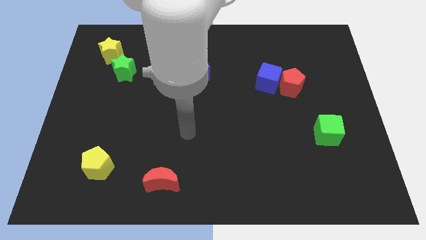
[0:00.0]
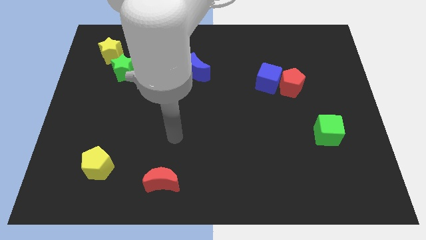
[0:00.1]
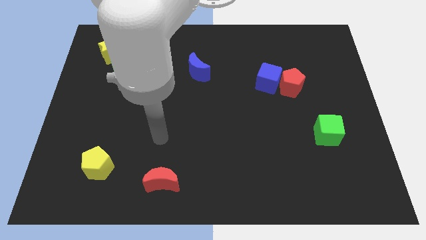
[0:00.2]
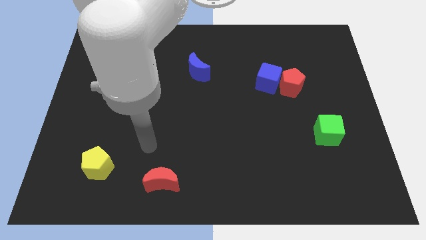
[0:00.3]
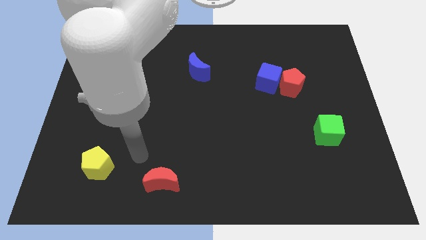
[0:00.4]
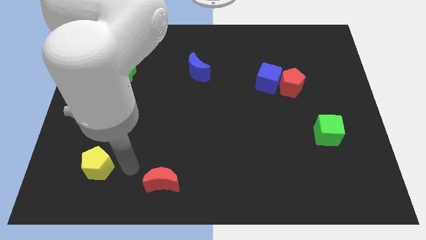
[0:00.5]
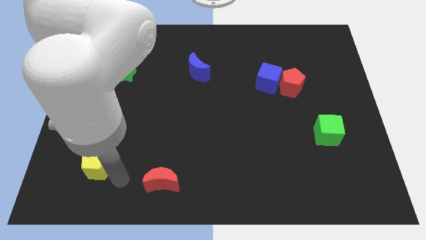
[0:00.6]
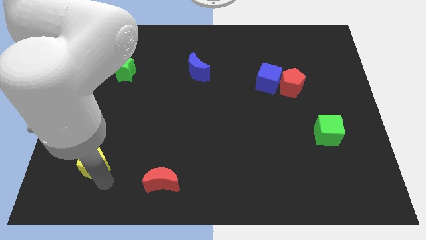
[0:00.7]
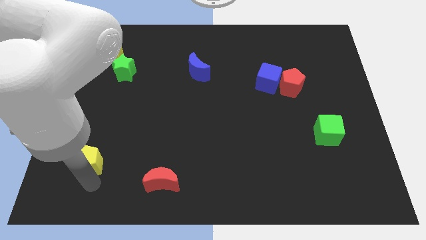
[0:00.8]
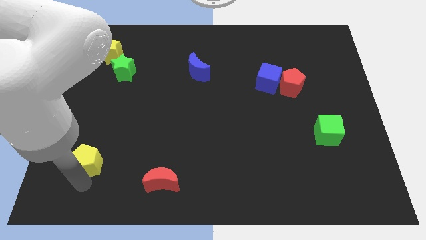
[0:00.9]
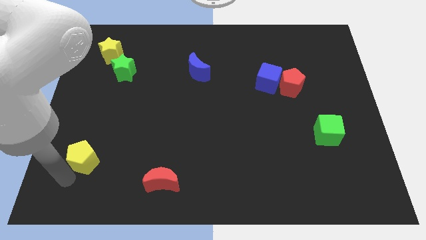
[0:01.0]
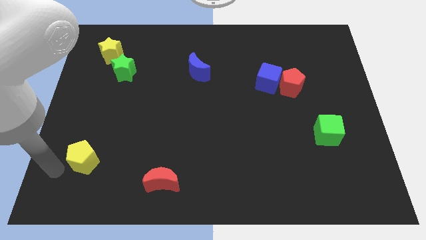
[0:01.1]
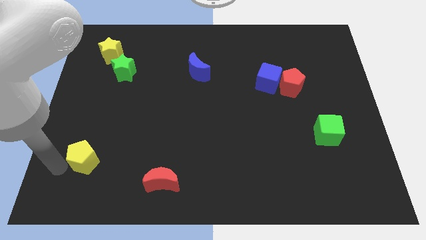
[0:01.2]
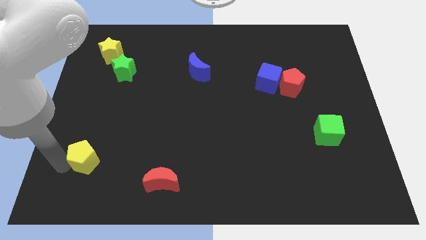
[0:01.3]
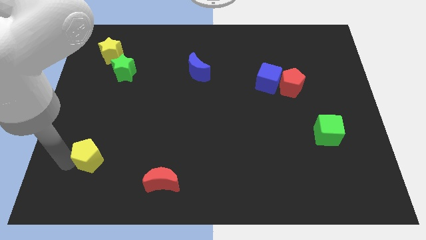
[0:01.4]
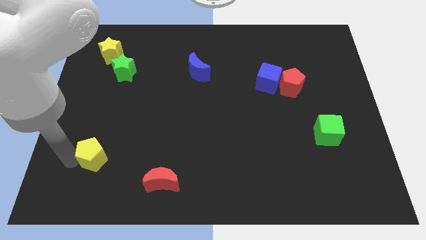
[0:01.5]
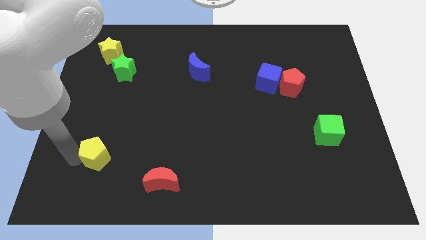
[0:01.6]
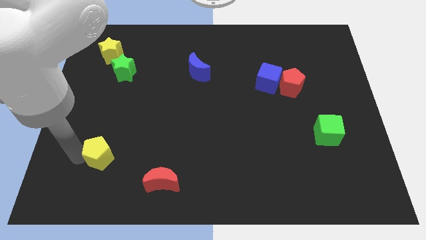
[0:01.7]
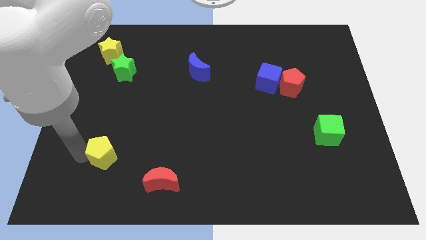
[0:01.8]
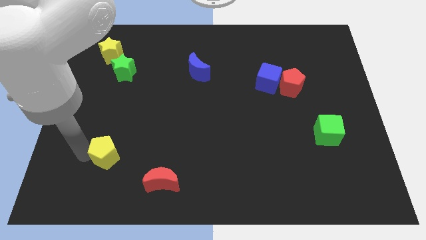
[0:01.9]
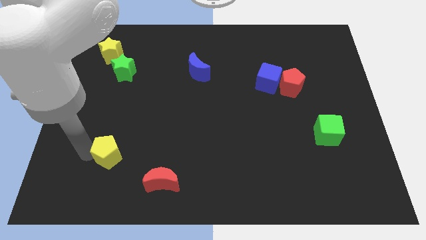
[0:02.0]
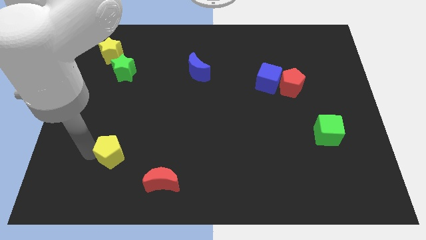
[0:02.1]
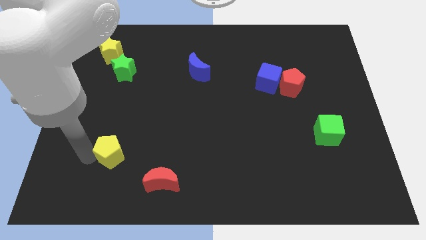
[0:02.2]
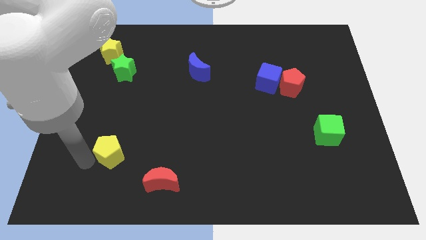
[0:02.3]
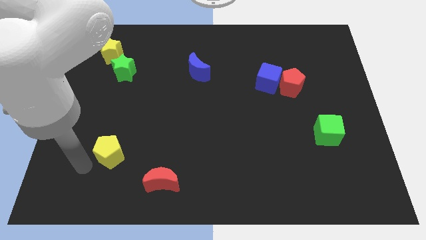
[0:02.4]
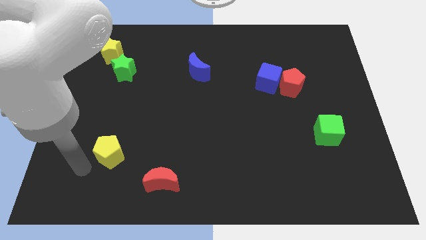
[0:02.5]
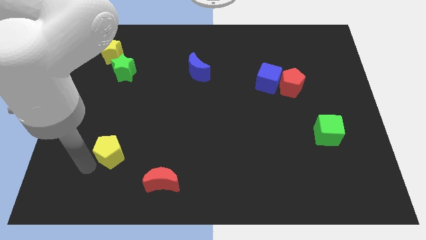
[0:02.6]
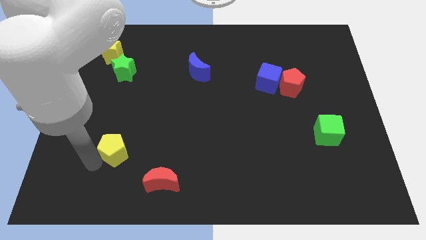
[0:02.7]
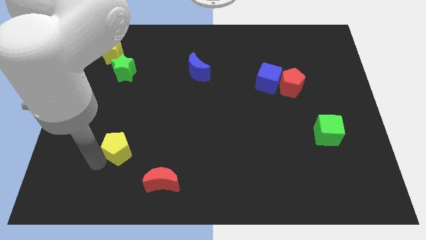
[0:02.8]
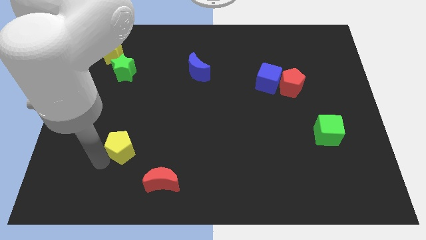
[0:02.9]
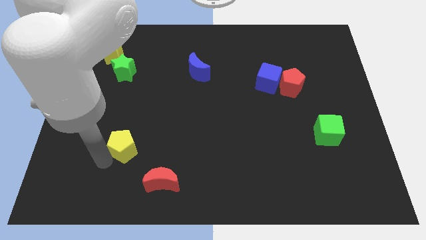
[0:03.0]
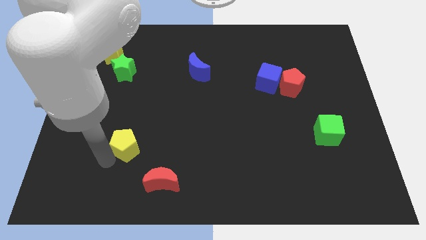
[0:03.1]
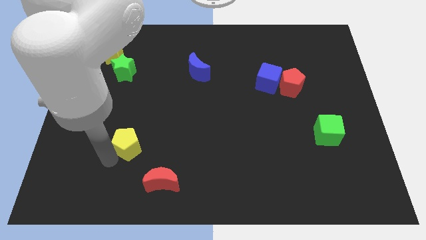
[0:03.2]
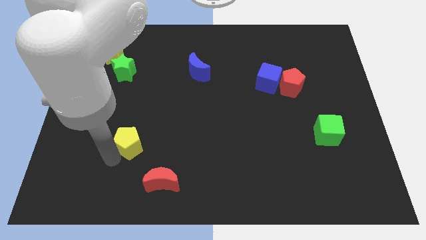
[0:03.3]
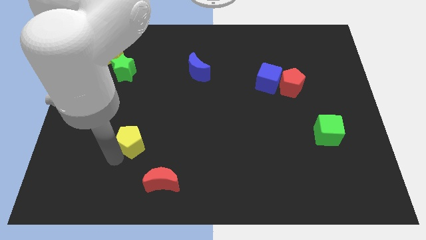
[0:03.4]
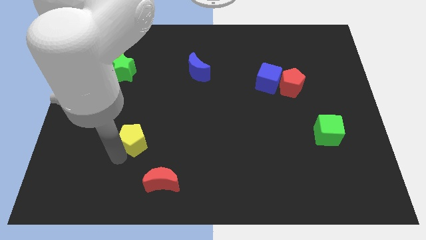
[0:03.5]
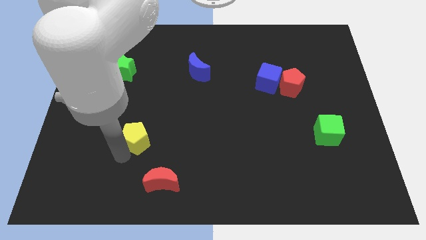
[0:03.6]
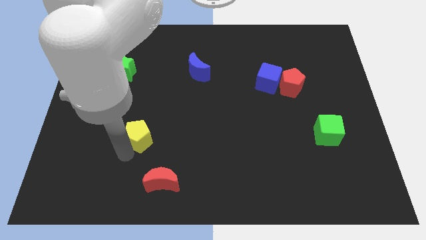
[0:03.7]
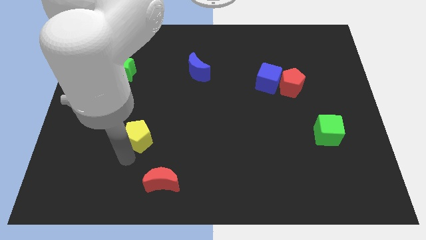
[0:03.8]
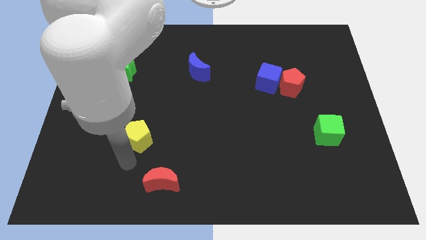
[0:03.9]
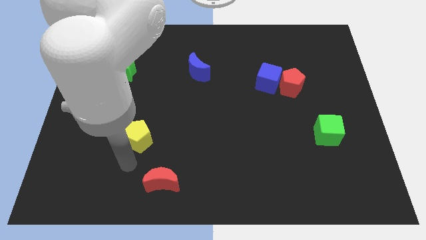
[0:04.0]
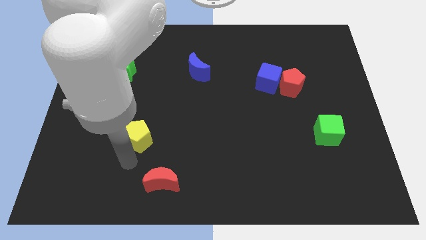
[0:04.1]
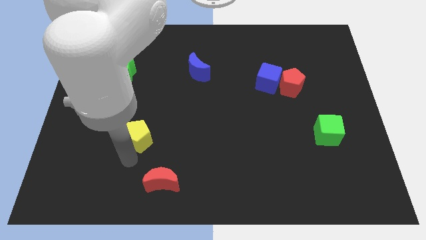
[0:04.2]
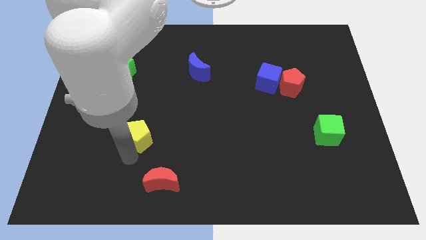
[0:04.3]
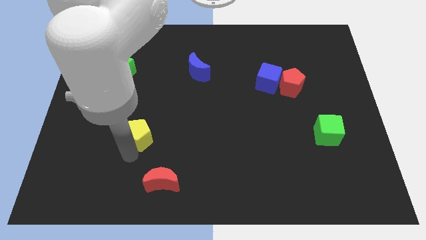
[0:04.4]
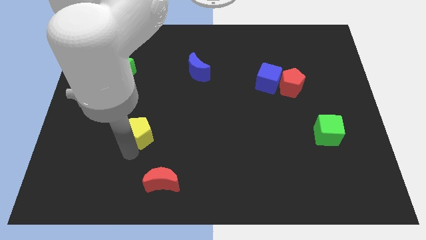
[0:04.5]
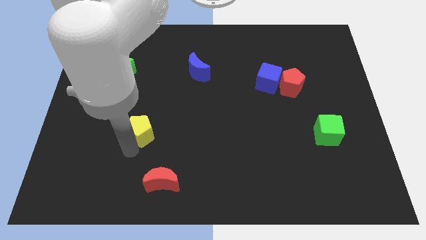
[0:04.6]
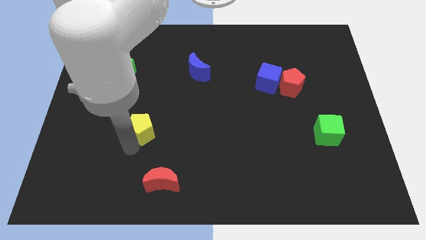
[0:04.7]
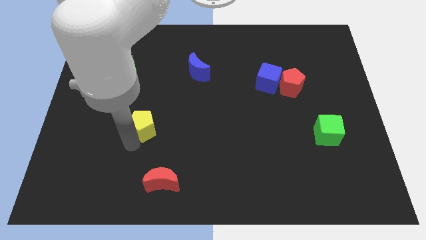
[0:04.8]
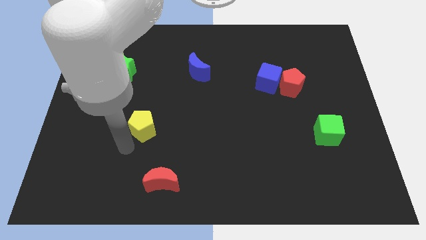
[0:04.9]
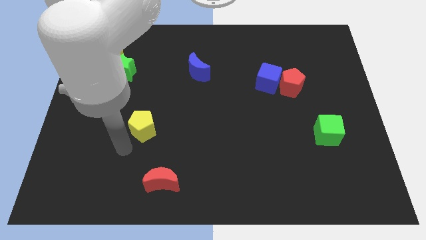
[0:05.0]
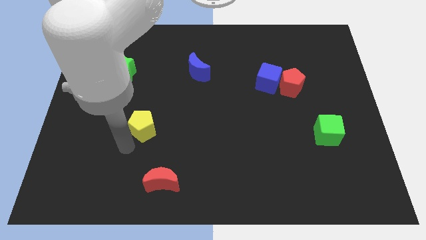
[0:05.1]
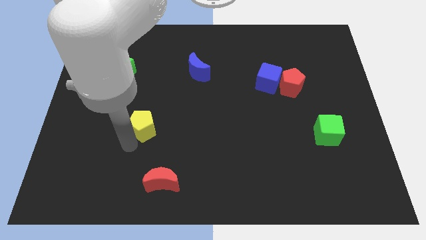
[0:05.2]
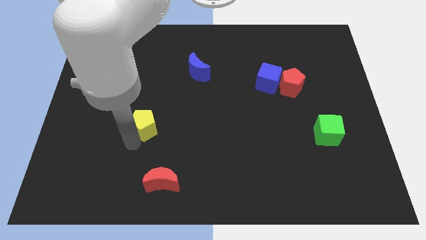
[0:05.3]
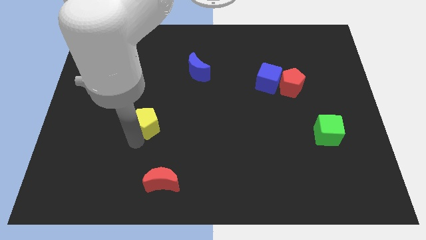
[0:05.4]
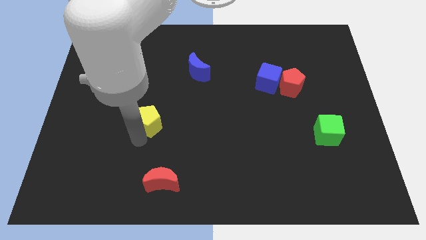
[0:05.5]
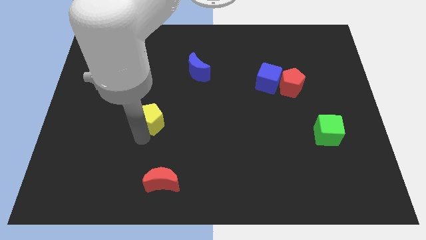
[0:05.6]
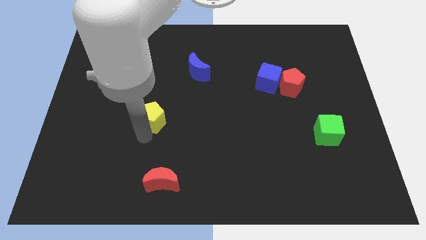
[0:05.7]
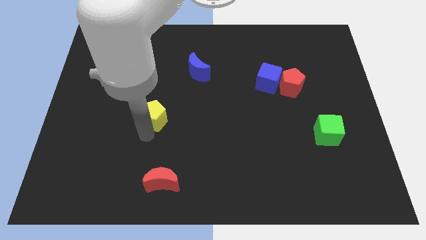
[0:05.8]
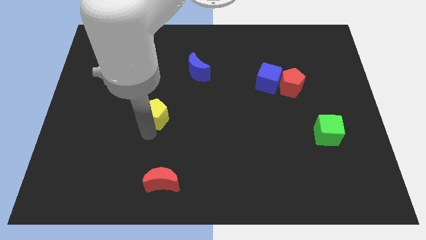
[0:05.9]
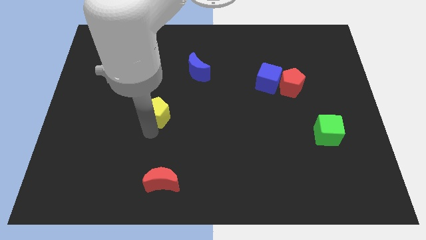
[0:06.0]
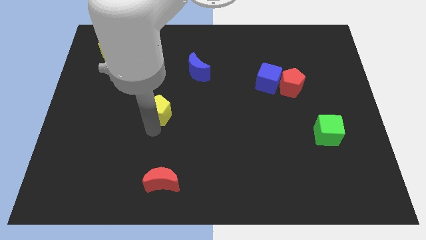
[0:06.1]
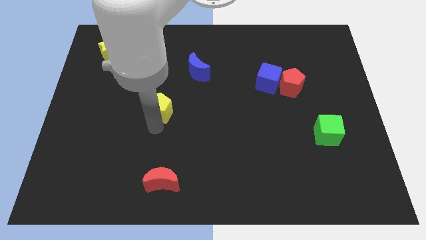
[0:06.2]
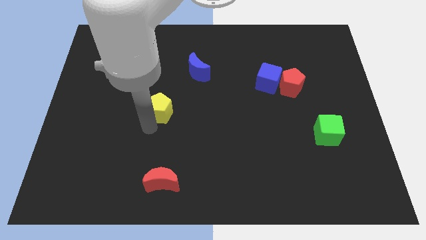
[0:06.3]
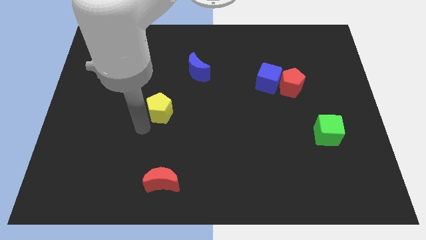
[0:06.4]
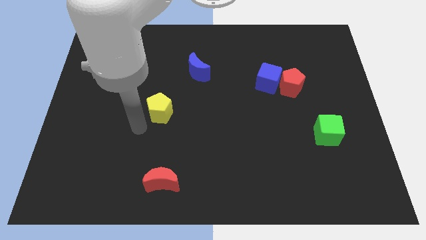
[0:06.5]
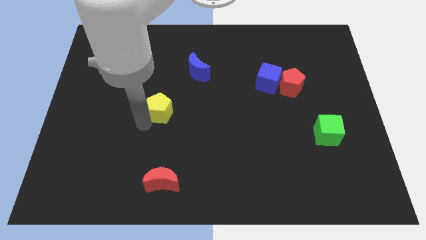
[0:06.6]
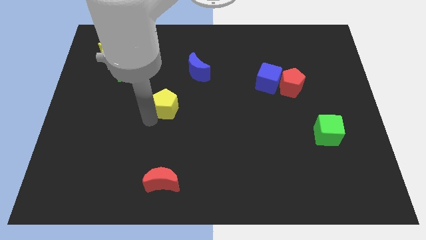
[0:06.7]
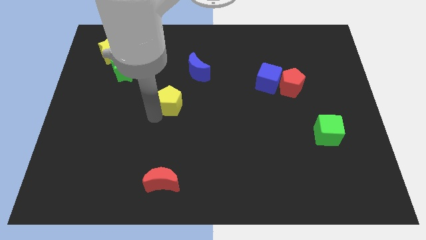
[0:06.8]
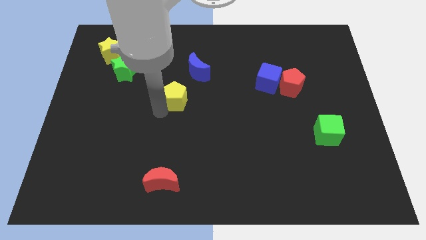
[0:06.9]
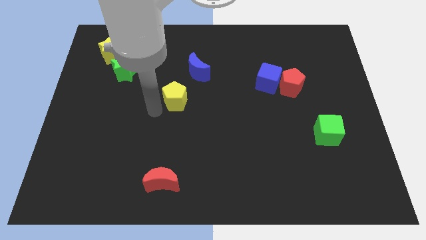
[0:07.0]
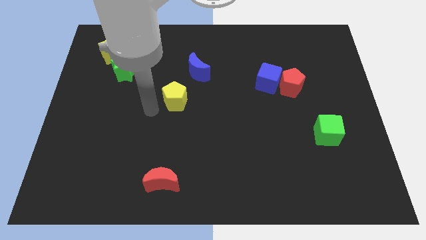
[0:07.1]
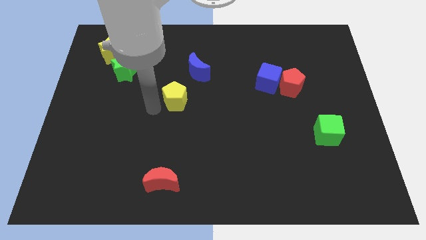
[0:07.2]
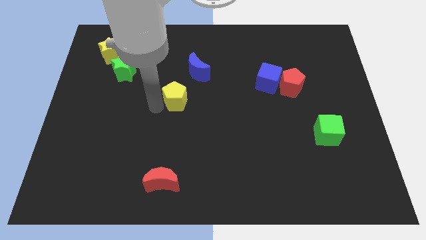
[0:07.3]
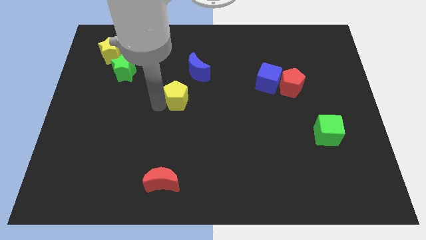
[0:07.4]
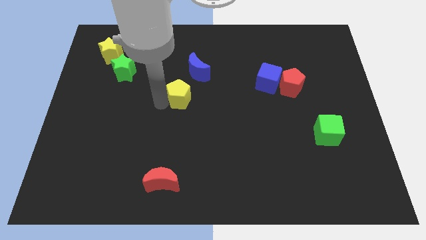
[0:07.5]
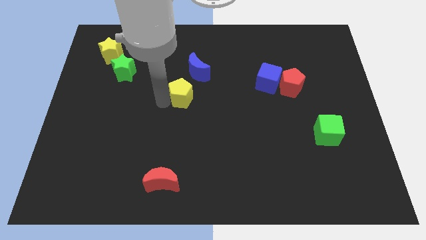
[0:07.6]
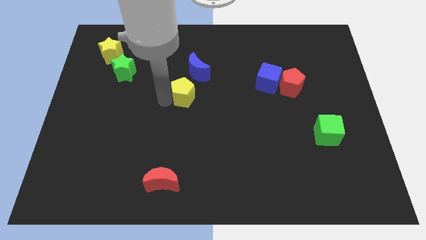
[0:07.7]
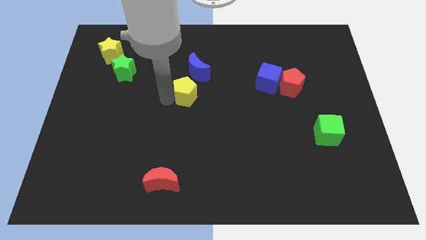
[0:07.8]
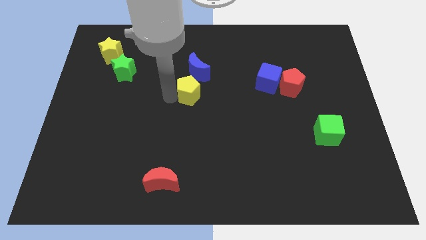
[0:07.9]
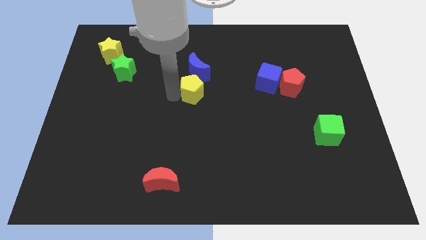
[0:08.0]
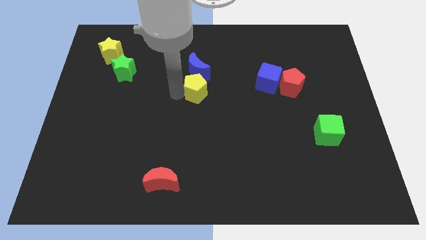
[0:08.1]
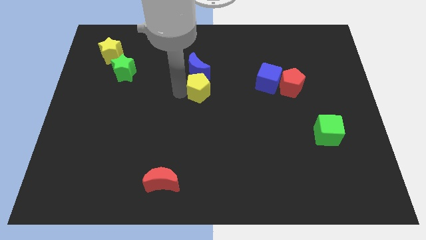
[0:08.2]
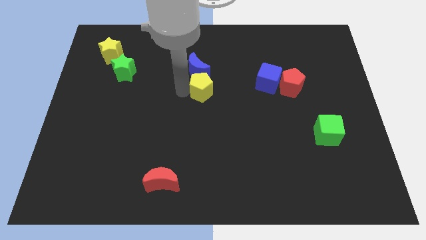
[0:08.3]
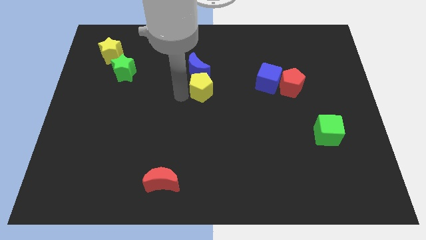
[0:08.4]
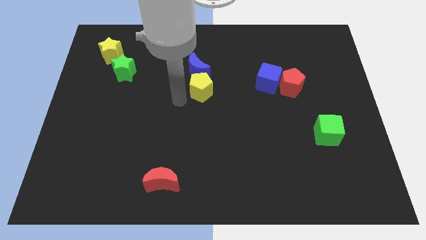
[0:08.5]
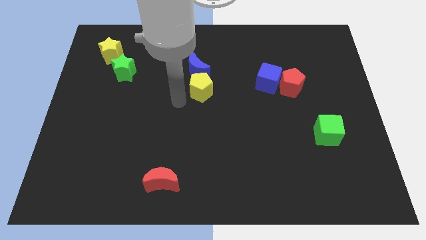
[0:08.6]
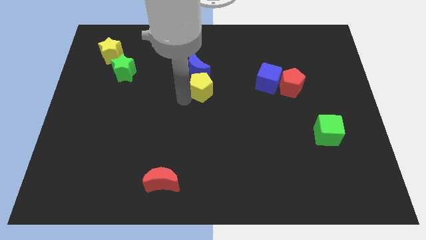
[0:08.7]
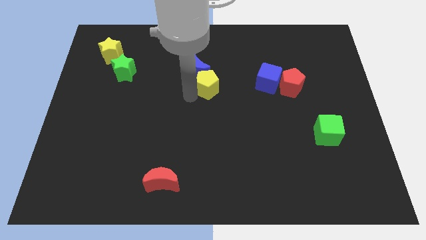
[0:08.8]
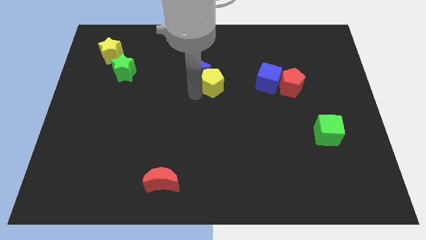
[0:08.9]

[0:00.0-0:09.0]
slide the yellow pentagon to the right side of the blue moon
